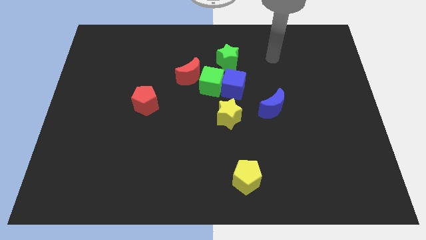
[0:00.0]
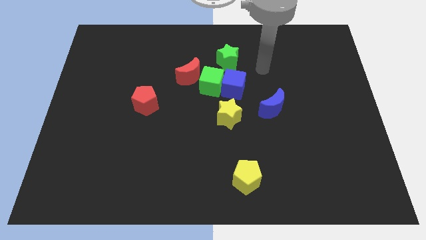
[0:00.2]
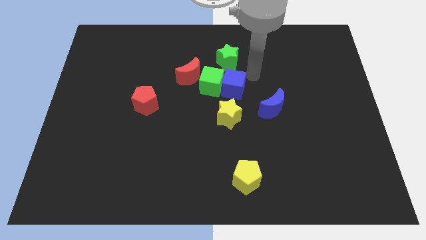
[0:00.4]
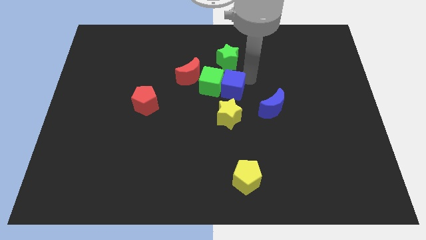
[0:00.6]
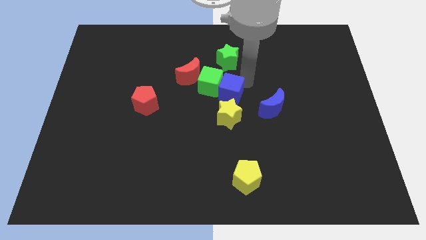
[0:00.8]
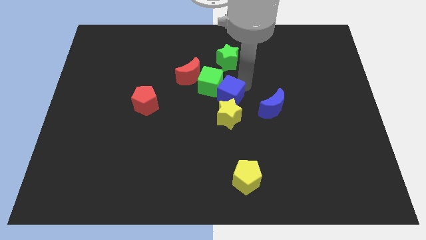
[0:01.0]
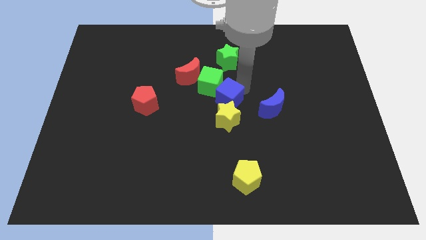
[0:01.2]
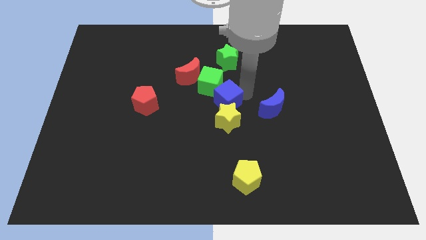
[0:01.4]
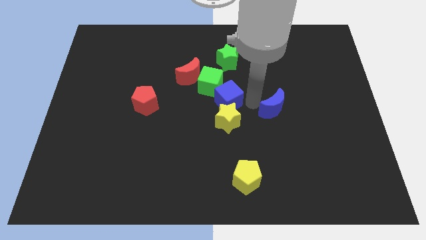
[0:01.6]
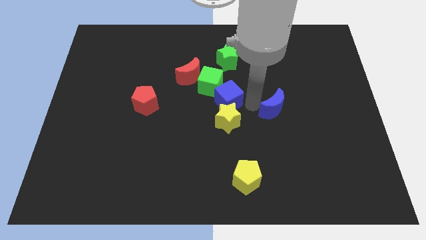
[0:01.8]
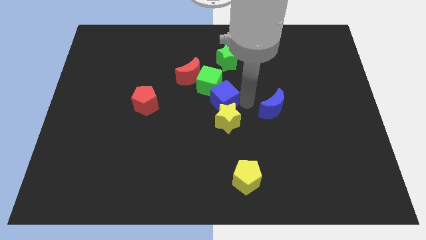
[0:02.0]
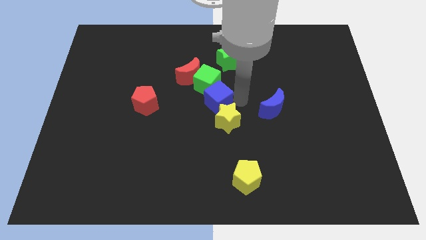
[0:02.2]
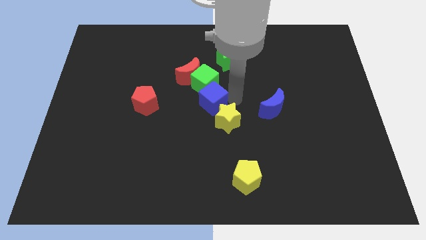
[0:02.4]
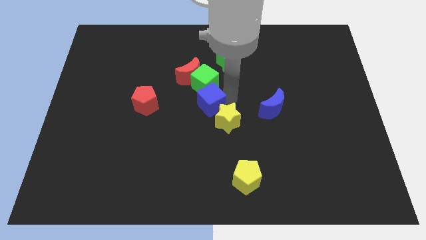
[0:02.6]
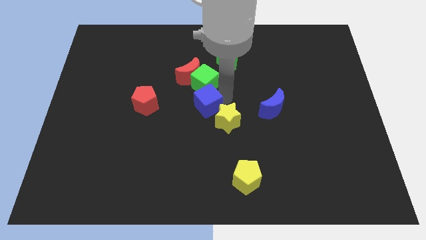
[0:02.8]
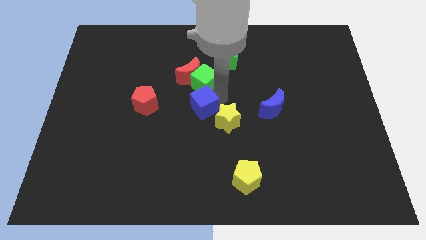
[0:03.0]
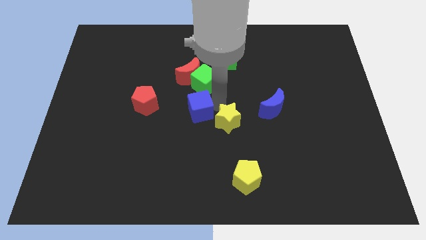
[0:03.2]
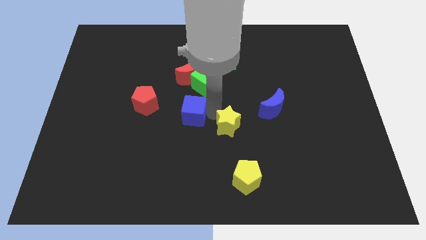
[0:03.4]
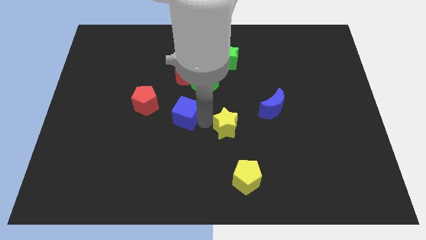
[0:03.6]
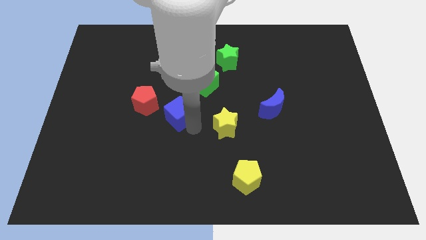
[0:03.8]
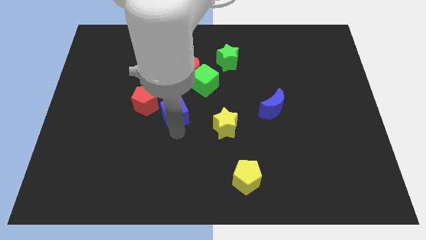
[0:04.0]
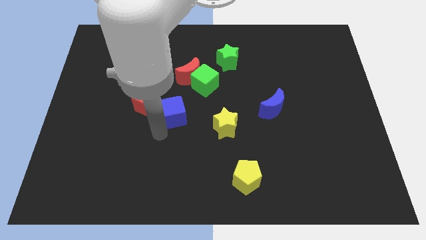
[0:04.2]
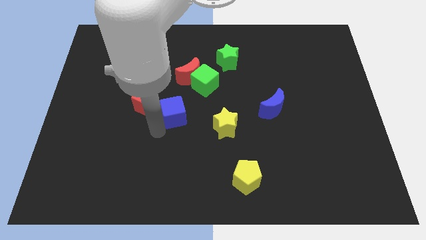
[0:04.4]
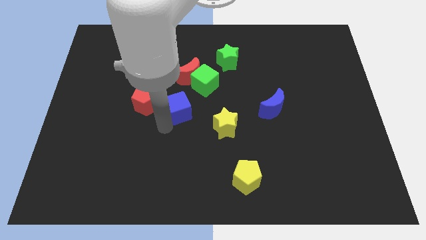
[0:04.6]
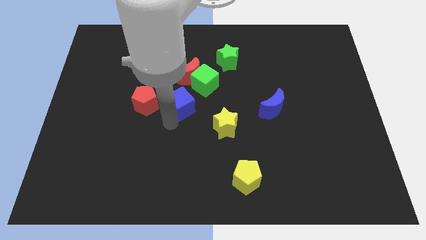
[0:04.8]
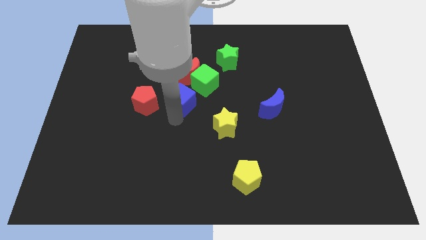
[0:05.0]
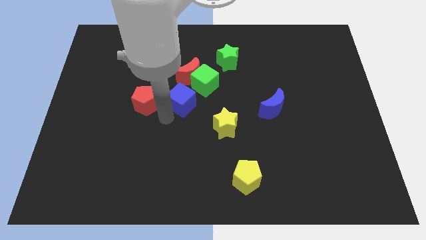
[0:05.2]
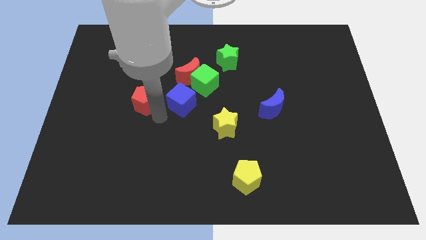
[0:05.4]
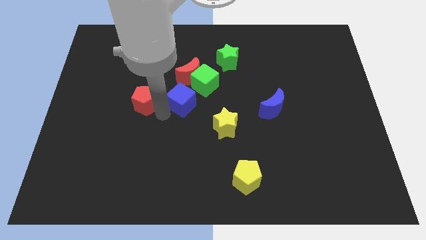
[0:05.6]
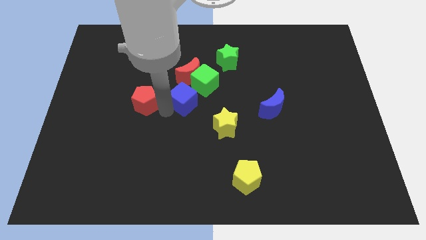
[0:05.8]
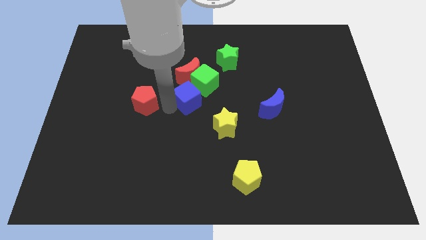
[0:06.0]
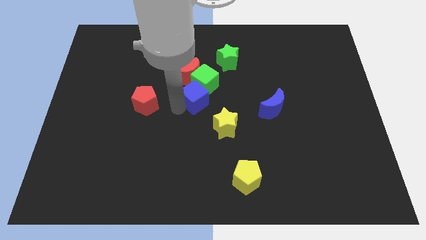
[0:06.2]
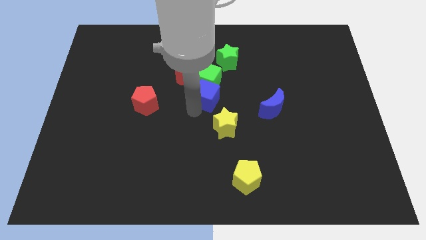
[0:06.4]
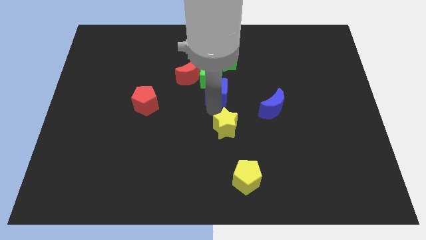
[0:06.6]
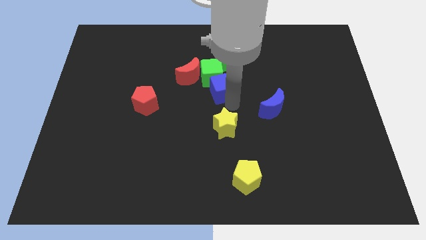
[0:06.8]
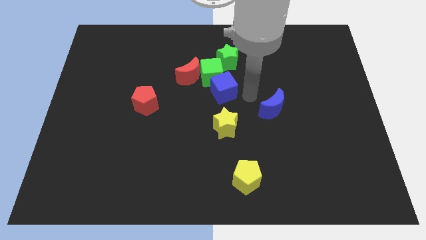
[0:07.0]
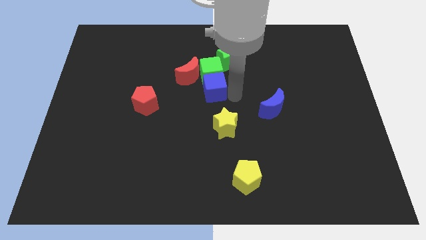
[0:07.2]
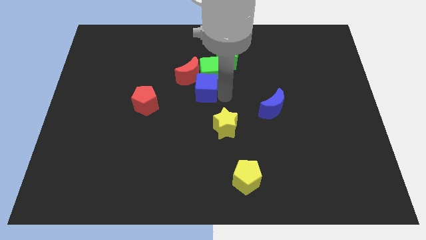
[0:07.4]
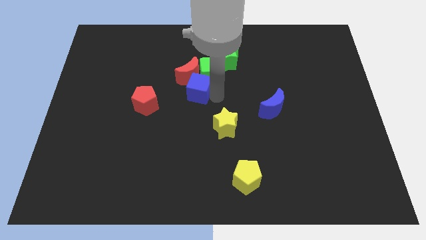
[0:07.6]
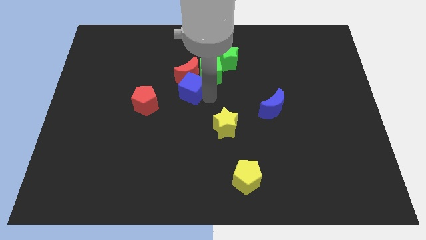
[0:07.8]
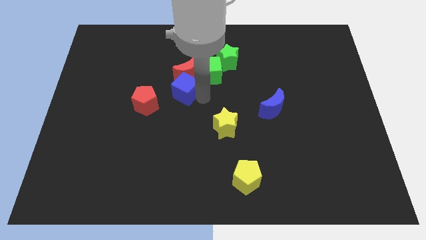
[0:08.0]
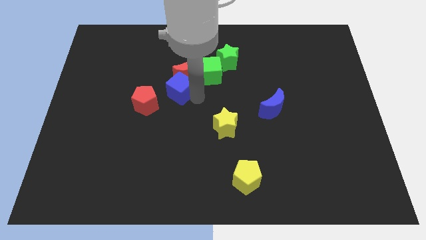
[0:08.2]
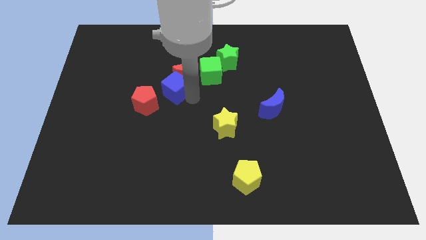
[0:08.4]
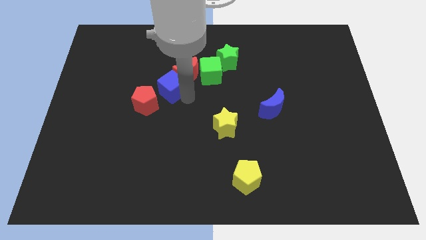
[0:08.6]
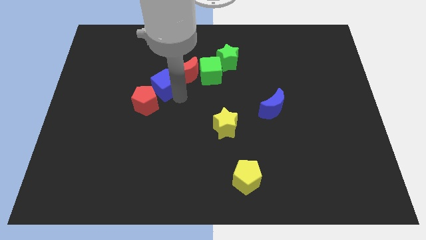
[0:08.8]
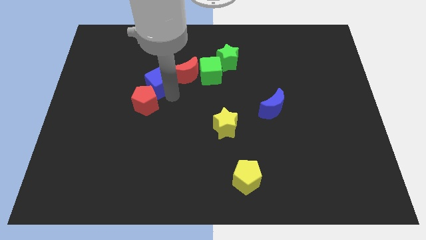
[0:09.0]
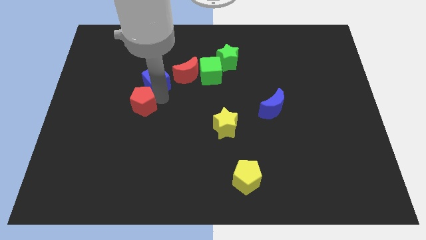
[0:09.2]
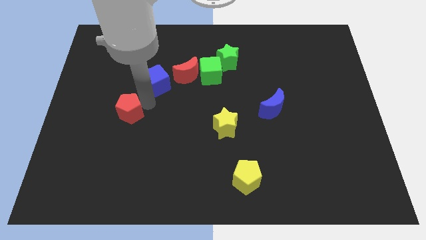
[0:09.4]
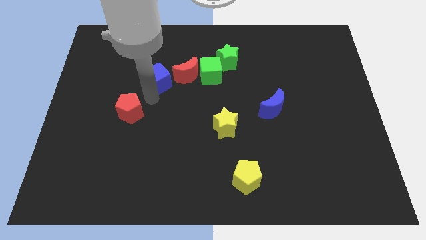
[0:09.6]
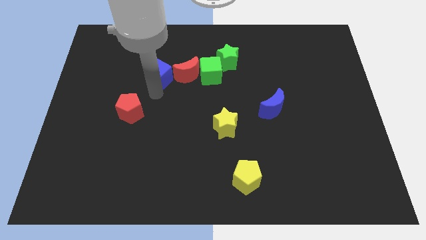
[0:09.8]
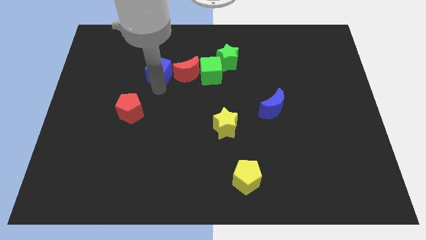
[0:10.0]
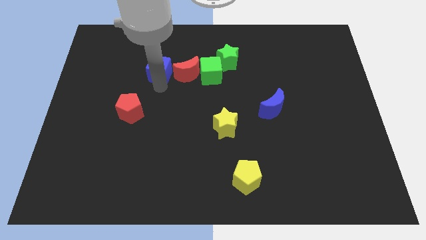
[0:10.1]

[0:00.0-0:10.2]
slide the blue cube to the top left of the red moon
